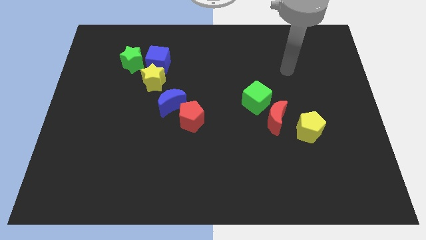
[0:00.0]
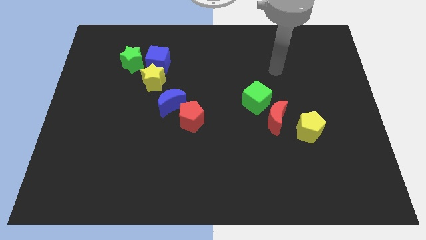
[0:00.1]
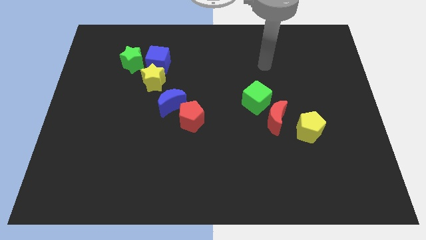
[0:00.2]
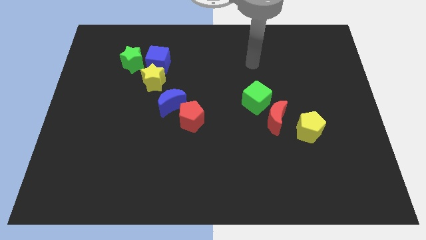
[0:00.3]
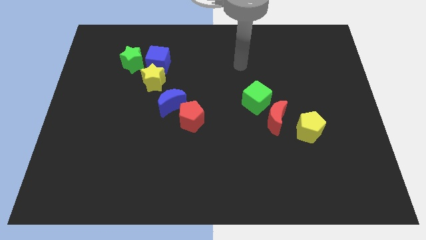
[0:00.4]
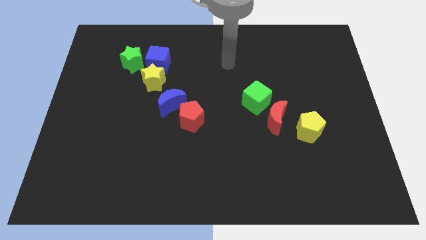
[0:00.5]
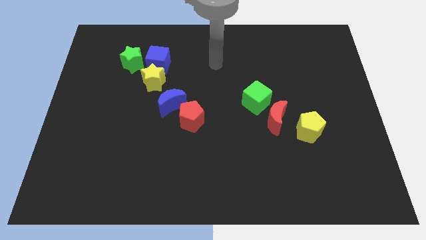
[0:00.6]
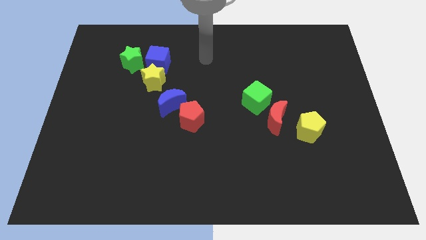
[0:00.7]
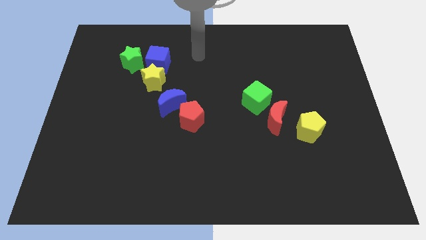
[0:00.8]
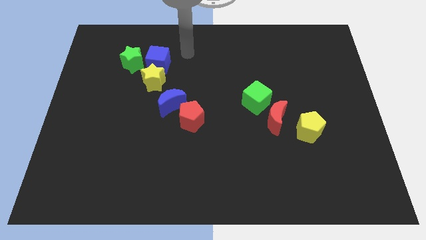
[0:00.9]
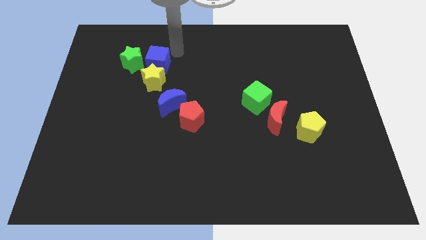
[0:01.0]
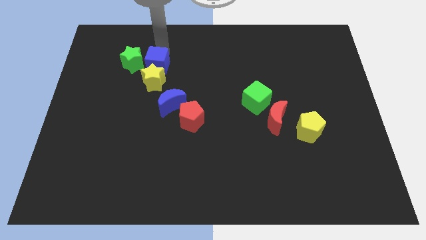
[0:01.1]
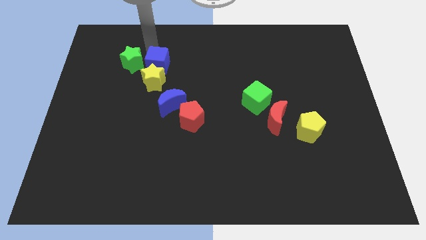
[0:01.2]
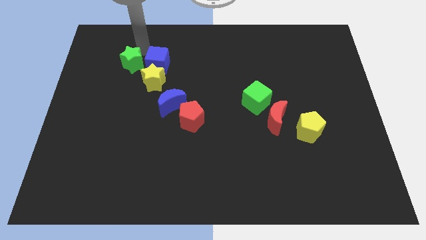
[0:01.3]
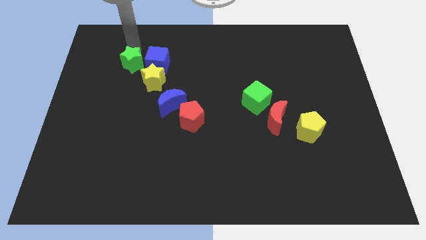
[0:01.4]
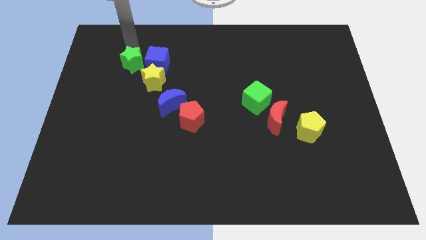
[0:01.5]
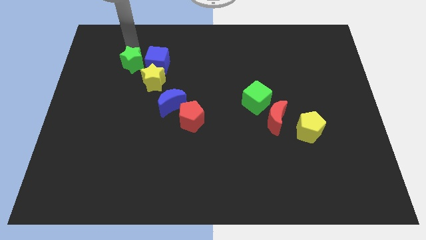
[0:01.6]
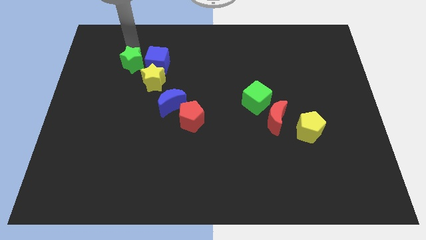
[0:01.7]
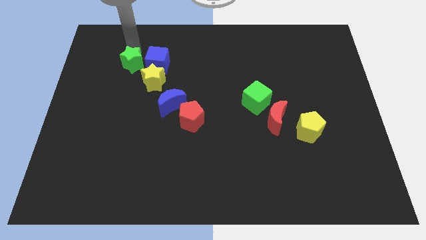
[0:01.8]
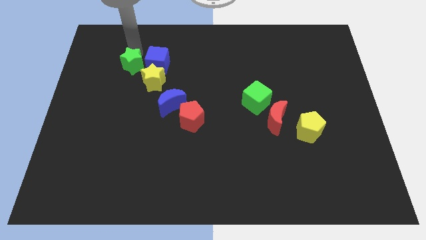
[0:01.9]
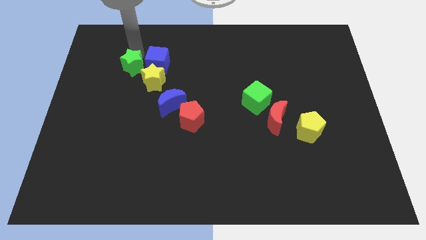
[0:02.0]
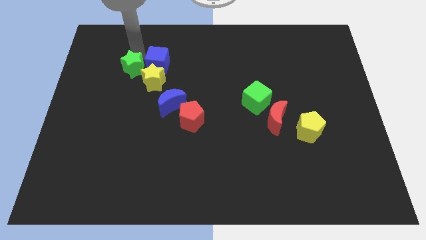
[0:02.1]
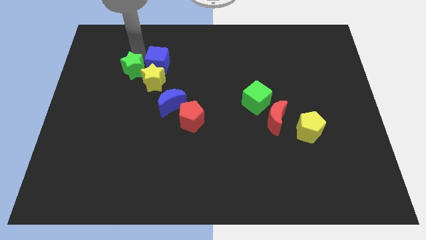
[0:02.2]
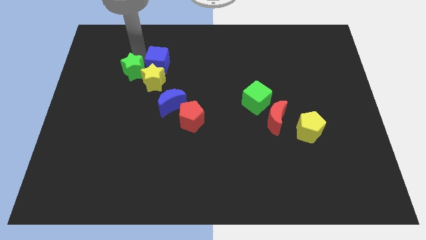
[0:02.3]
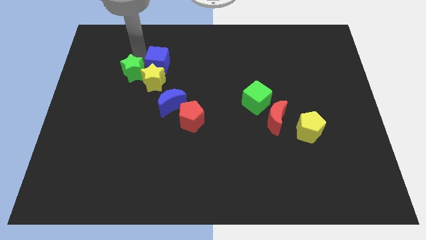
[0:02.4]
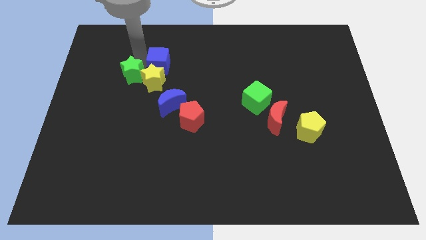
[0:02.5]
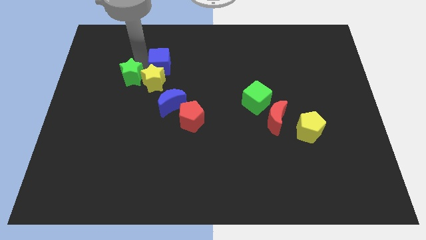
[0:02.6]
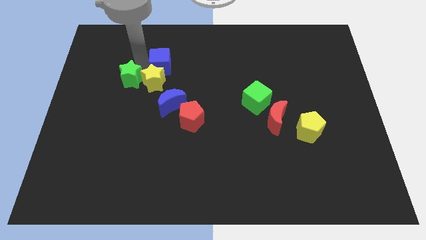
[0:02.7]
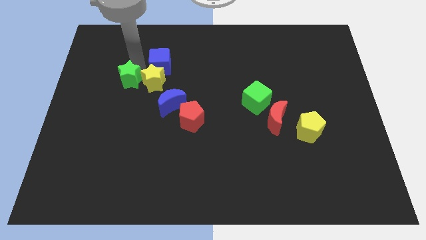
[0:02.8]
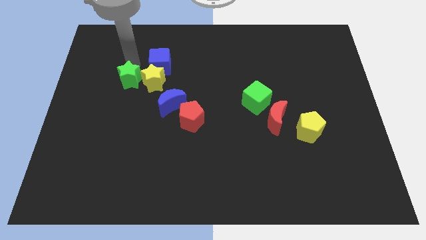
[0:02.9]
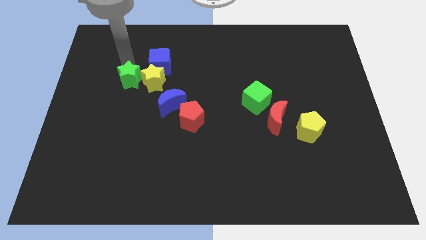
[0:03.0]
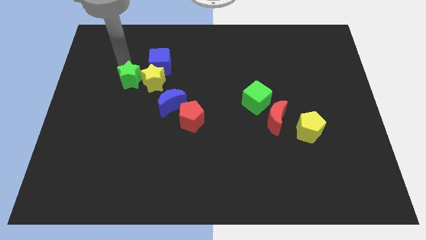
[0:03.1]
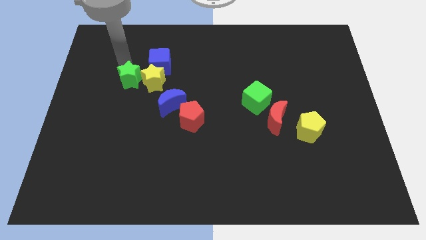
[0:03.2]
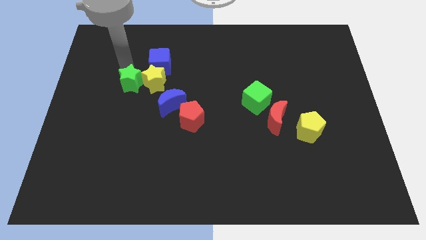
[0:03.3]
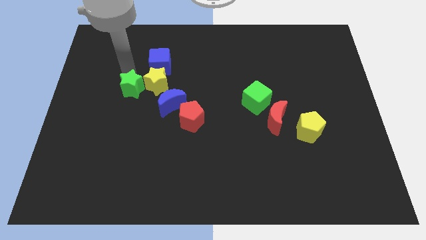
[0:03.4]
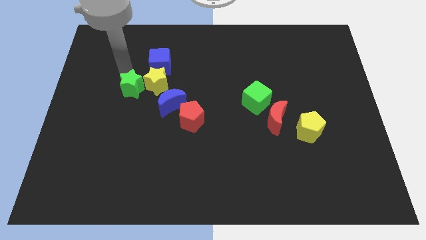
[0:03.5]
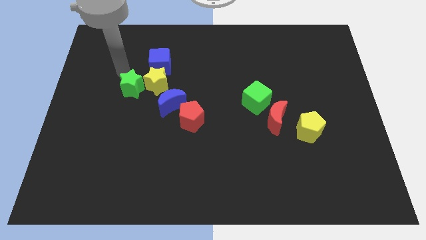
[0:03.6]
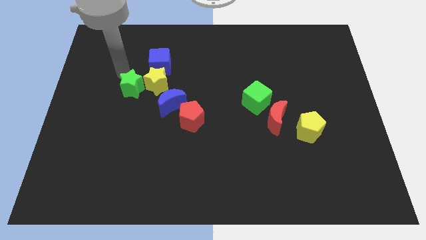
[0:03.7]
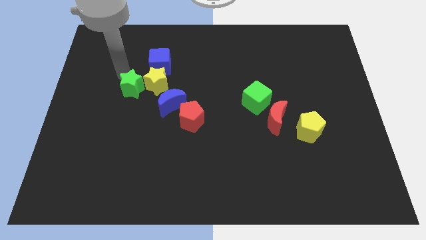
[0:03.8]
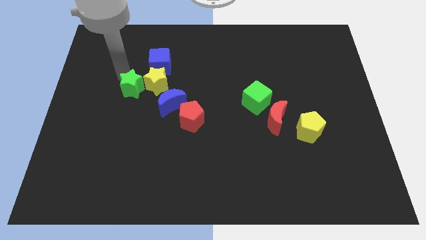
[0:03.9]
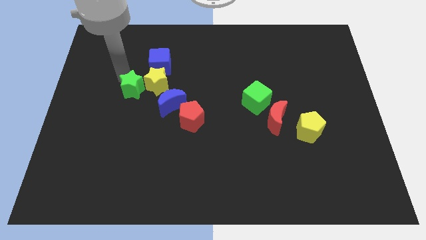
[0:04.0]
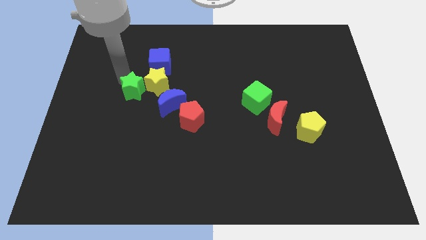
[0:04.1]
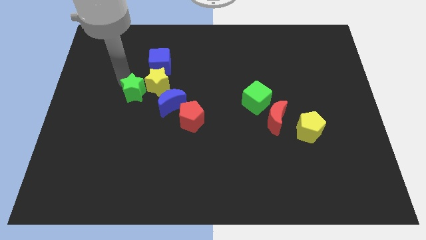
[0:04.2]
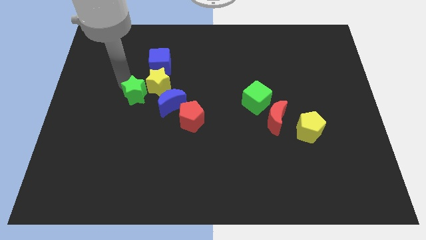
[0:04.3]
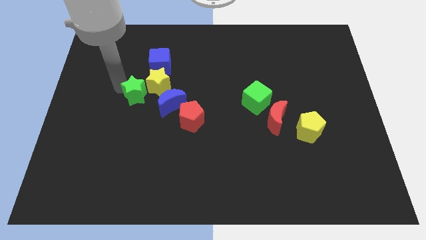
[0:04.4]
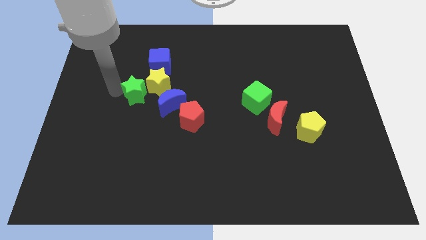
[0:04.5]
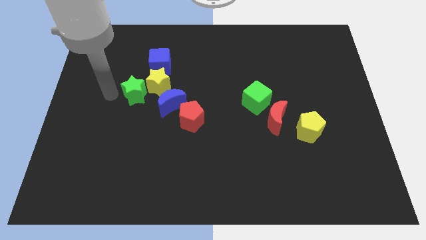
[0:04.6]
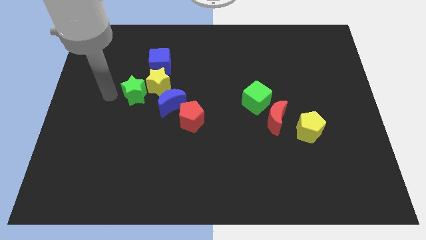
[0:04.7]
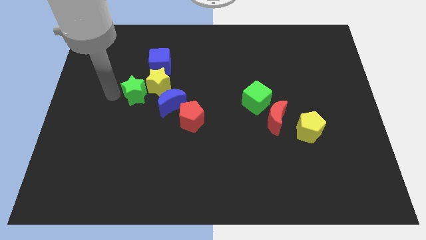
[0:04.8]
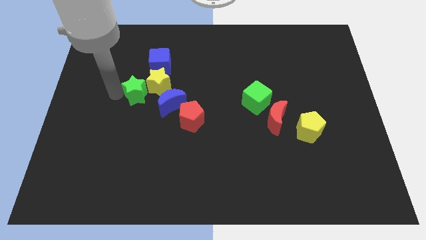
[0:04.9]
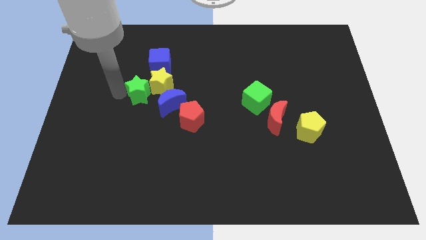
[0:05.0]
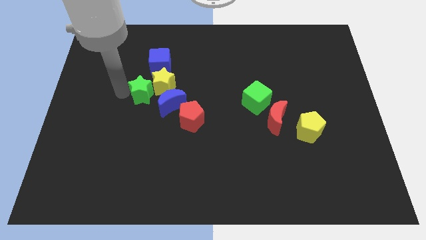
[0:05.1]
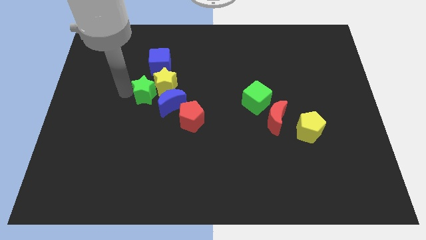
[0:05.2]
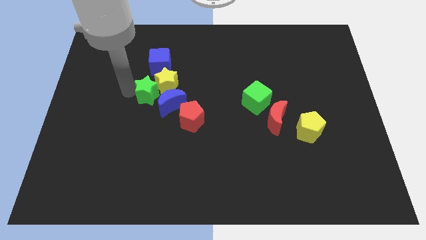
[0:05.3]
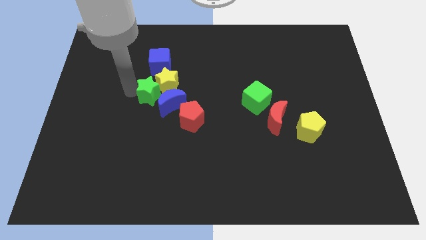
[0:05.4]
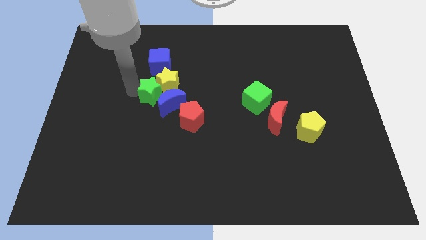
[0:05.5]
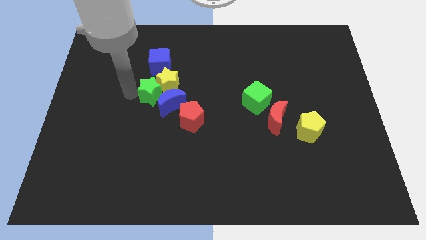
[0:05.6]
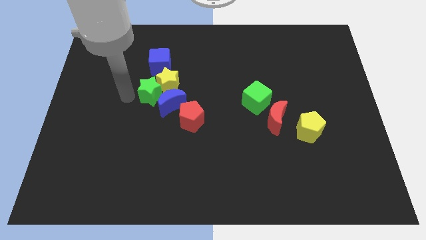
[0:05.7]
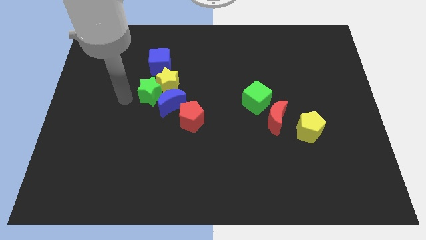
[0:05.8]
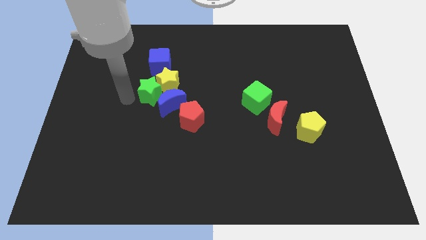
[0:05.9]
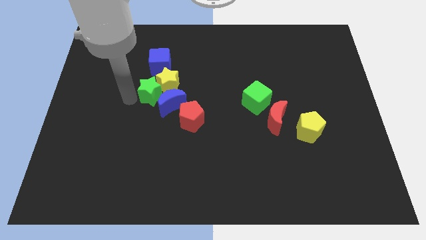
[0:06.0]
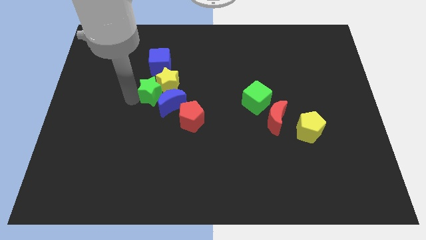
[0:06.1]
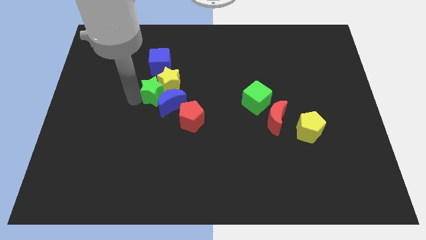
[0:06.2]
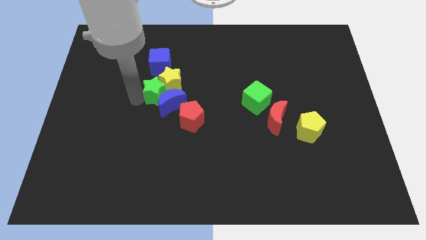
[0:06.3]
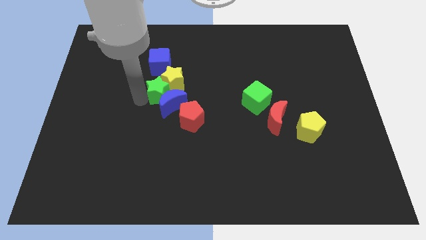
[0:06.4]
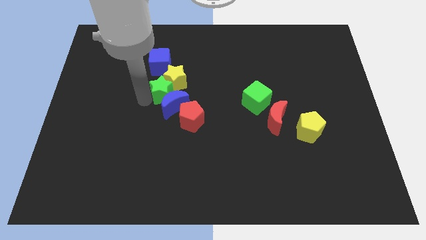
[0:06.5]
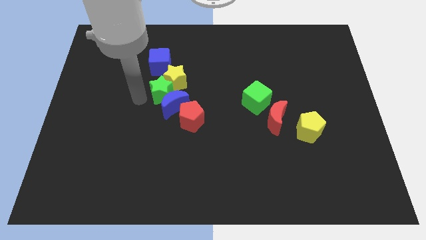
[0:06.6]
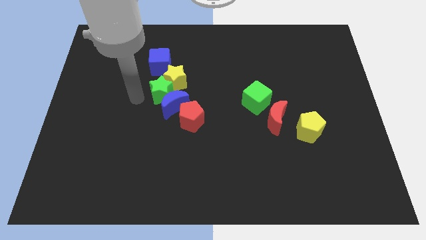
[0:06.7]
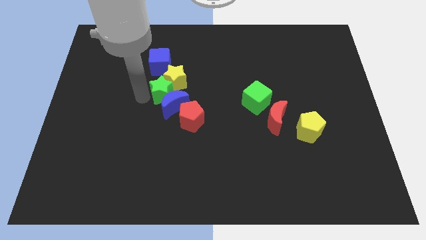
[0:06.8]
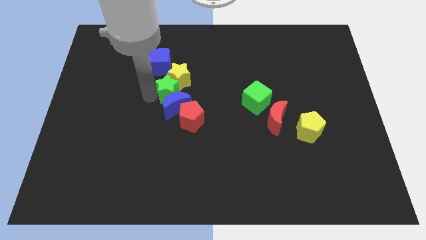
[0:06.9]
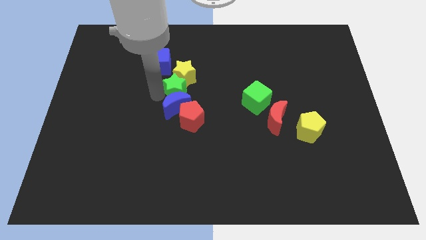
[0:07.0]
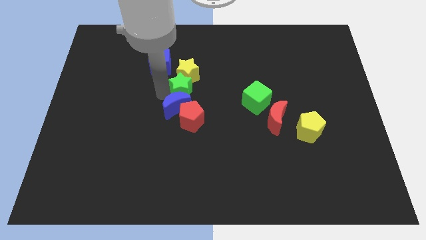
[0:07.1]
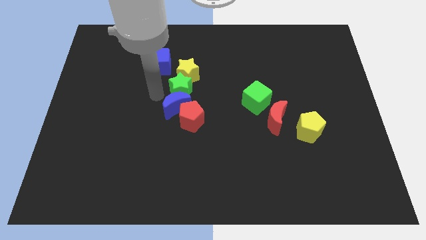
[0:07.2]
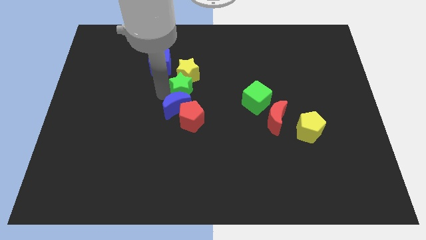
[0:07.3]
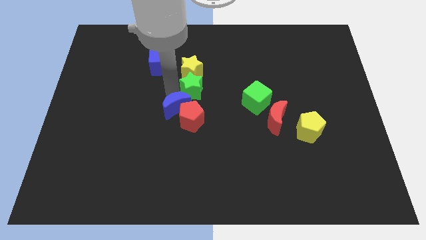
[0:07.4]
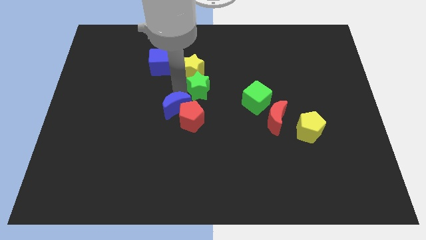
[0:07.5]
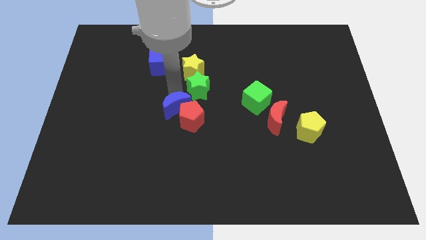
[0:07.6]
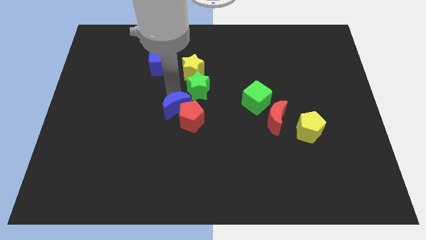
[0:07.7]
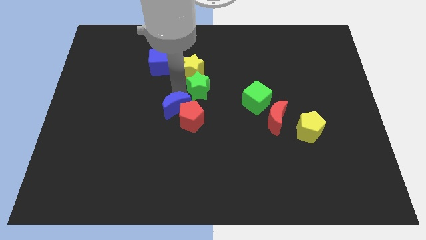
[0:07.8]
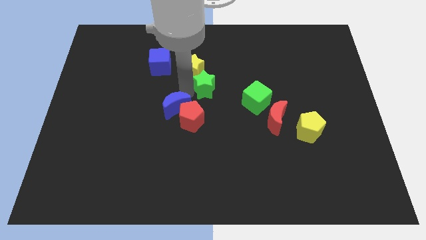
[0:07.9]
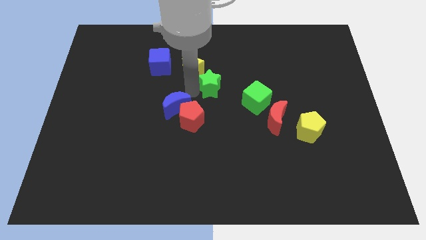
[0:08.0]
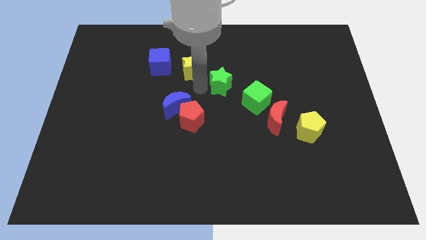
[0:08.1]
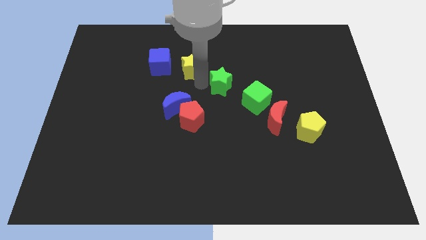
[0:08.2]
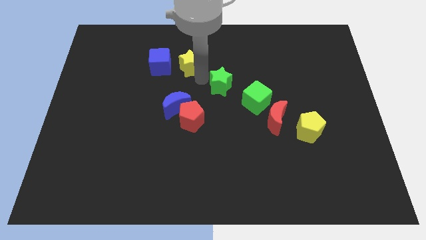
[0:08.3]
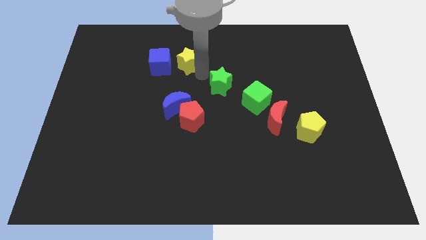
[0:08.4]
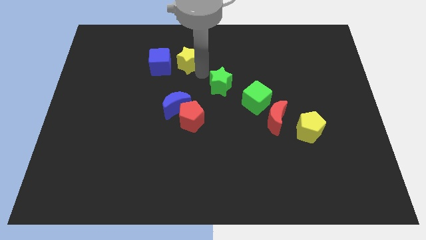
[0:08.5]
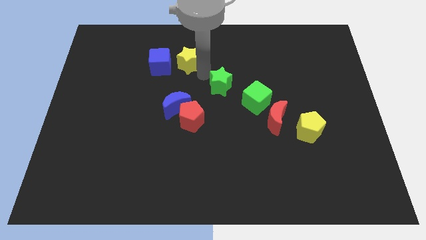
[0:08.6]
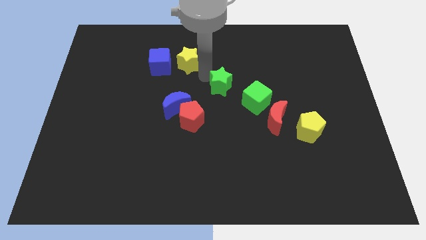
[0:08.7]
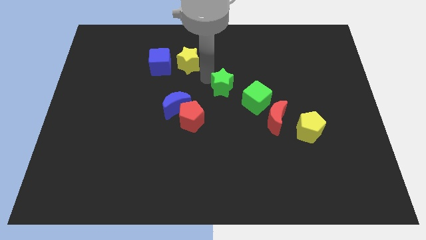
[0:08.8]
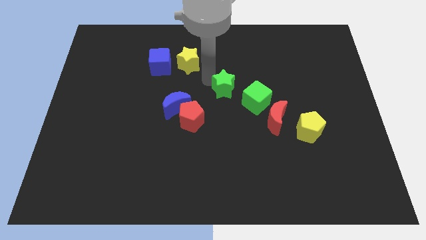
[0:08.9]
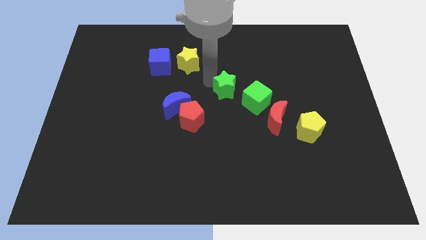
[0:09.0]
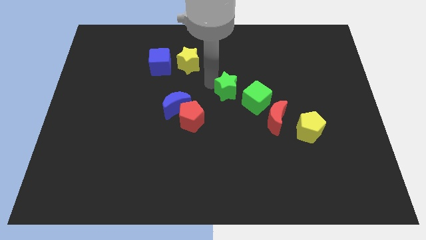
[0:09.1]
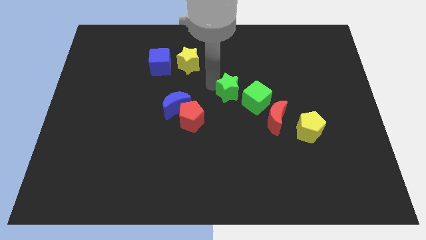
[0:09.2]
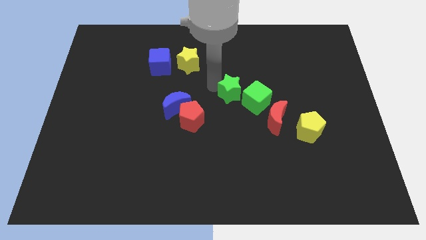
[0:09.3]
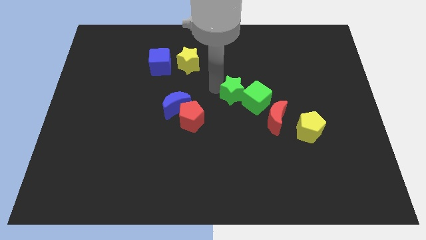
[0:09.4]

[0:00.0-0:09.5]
push the green star next to the green cube
